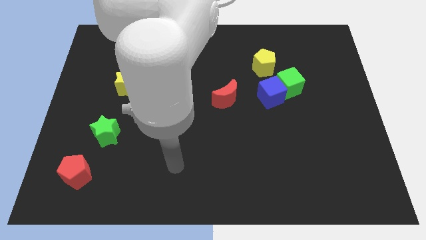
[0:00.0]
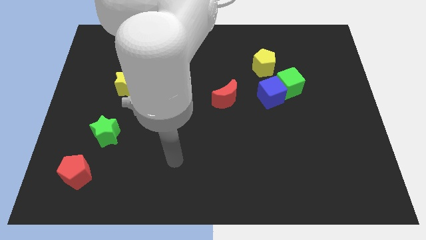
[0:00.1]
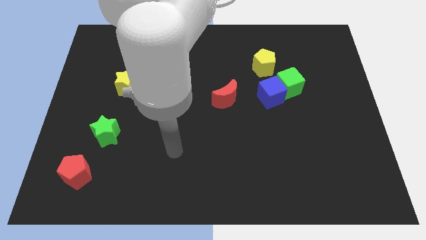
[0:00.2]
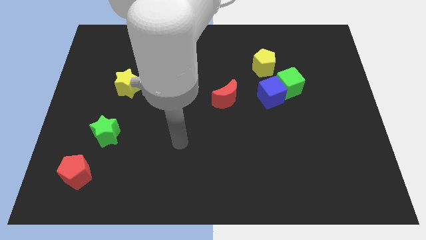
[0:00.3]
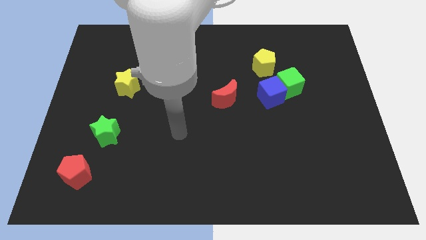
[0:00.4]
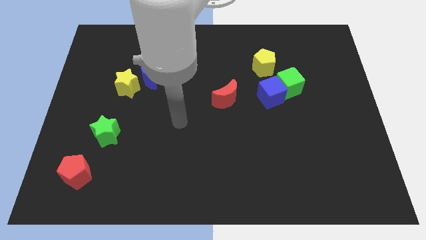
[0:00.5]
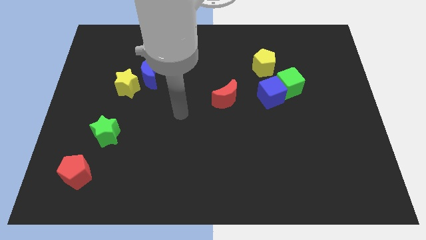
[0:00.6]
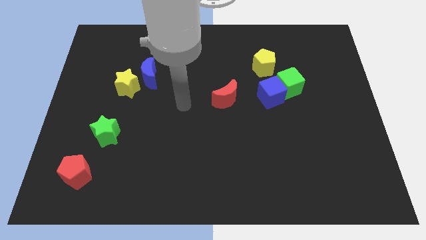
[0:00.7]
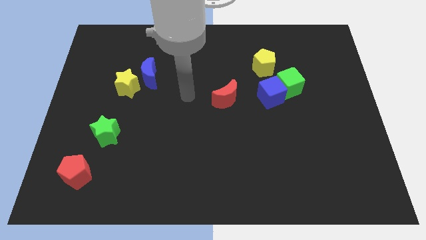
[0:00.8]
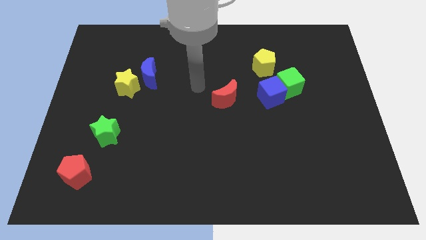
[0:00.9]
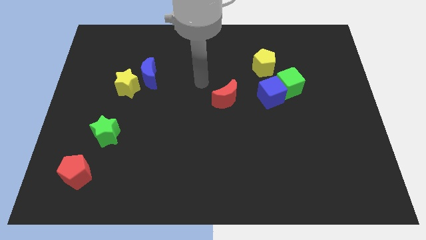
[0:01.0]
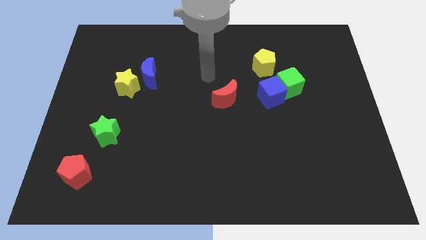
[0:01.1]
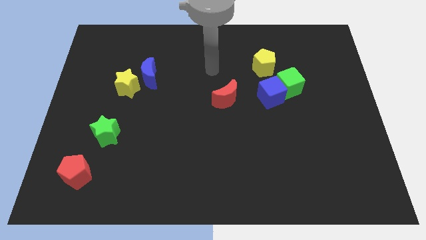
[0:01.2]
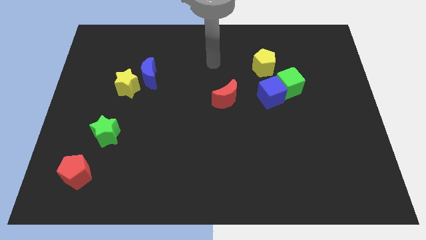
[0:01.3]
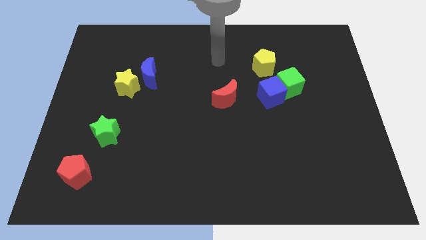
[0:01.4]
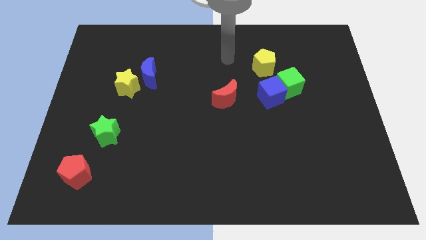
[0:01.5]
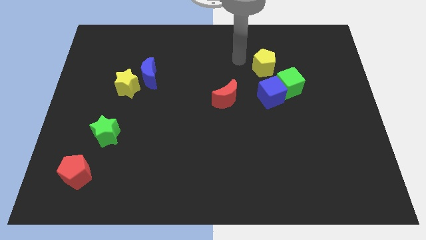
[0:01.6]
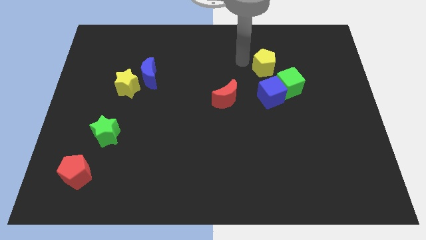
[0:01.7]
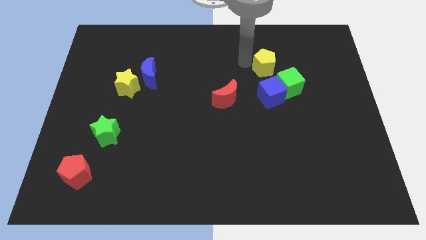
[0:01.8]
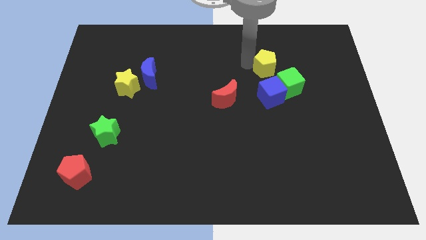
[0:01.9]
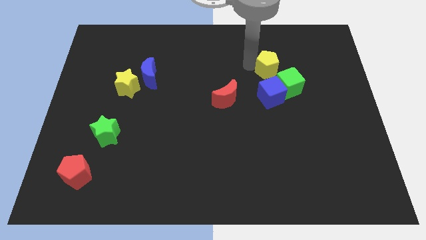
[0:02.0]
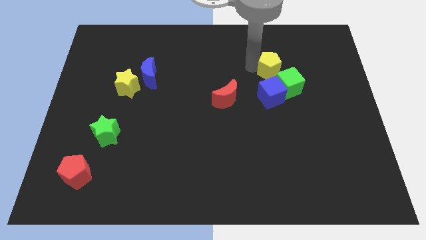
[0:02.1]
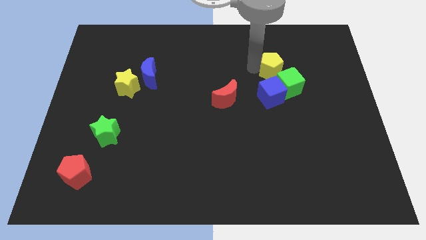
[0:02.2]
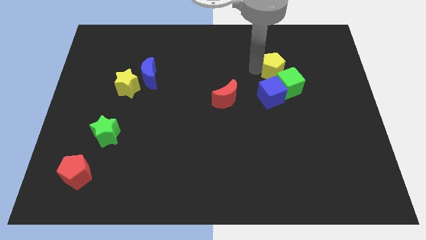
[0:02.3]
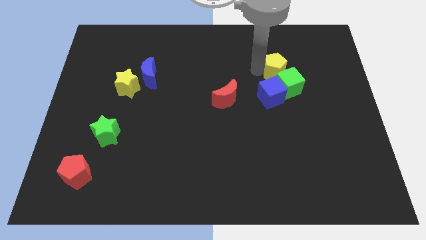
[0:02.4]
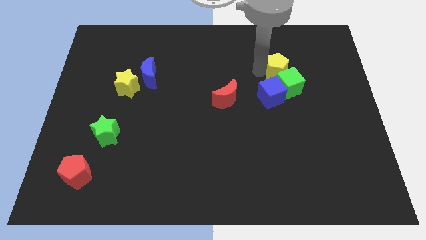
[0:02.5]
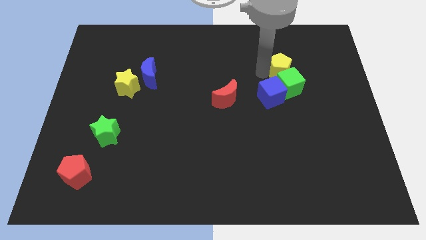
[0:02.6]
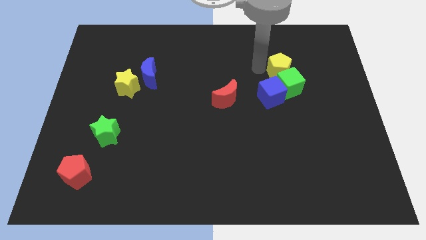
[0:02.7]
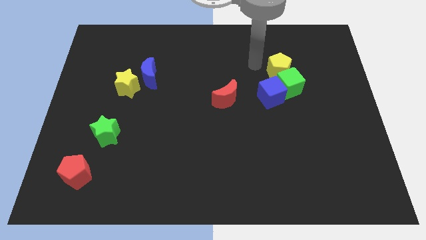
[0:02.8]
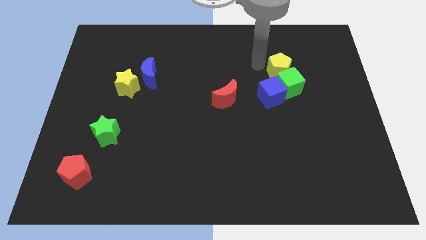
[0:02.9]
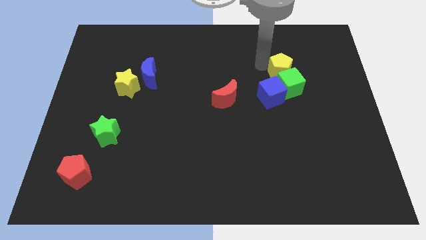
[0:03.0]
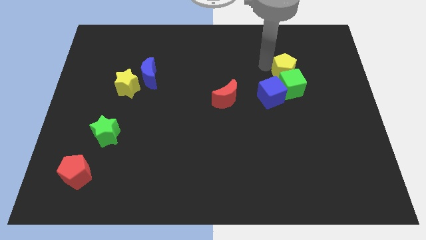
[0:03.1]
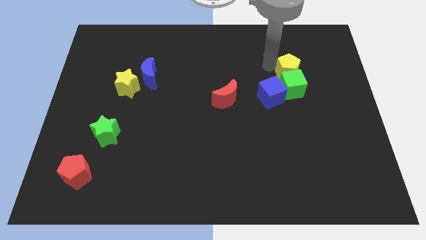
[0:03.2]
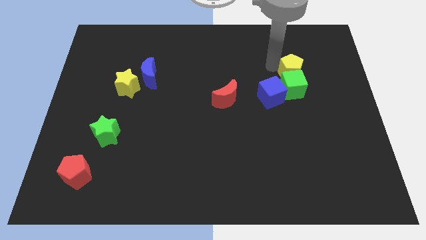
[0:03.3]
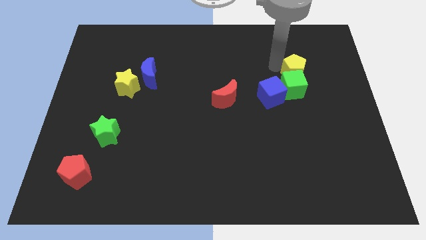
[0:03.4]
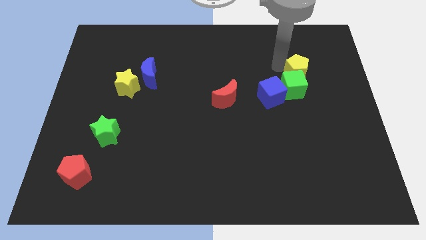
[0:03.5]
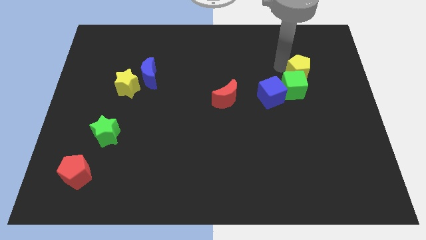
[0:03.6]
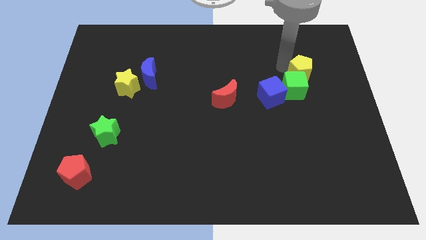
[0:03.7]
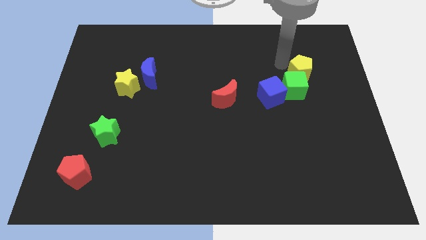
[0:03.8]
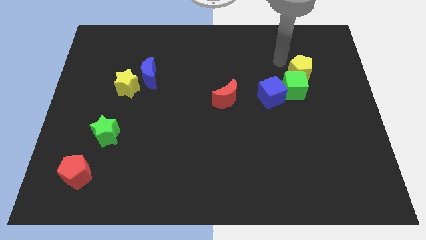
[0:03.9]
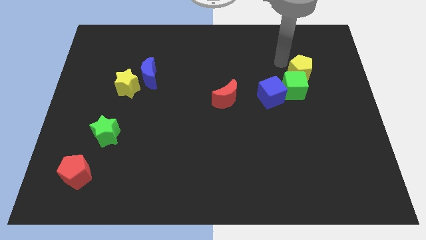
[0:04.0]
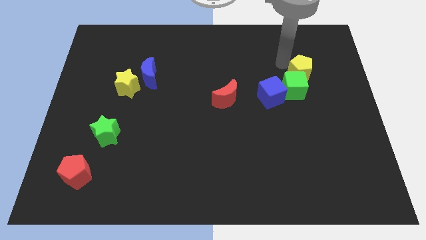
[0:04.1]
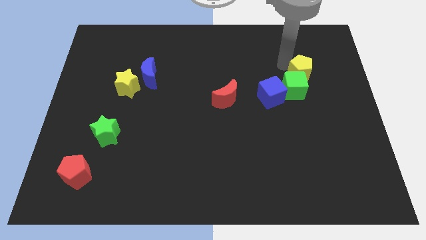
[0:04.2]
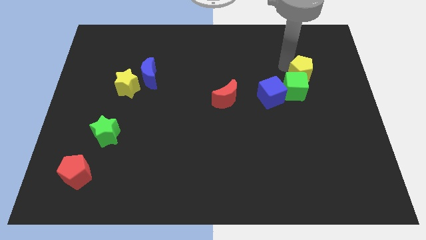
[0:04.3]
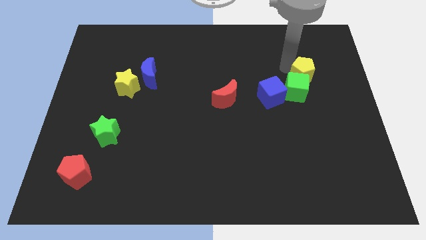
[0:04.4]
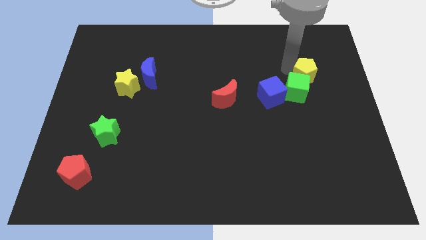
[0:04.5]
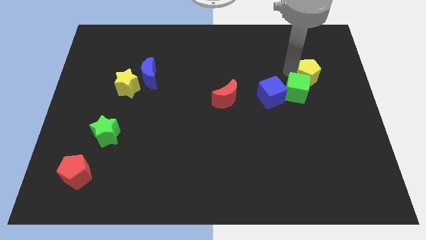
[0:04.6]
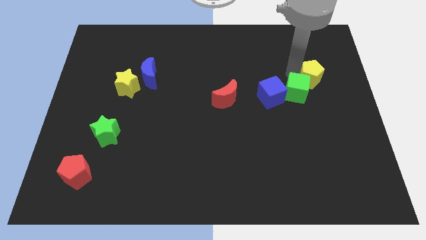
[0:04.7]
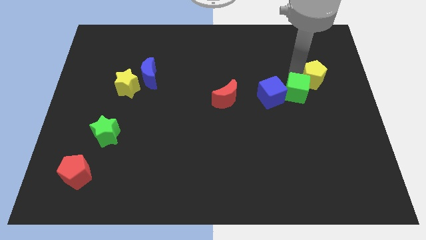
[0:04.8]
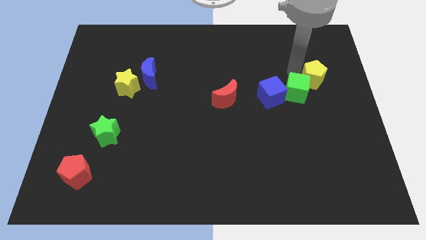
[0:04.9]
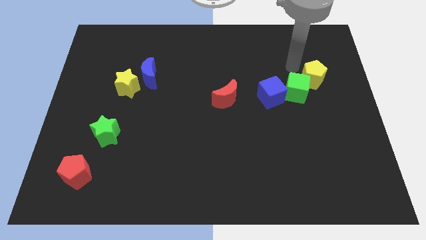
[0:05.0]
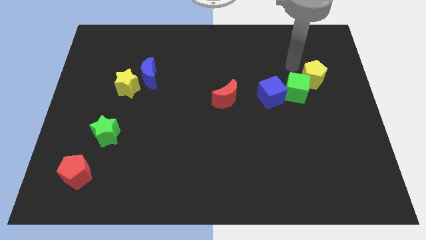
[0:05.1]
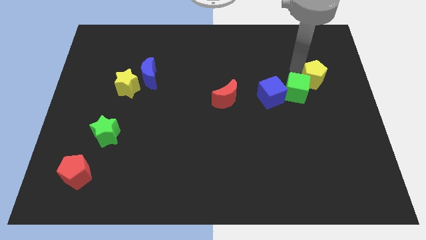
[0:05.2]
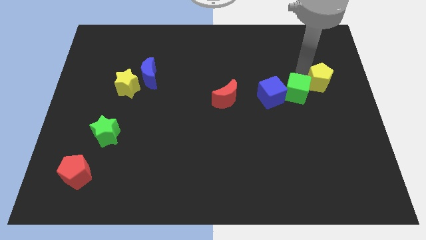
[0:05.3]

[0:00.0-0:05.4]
slide the yellow pentagon to the center right
